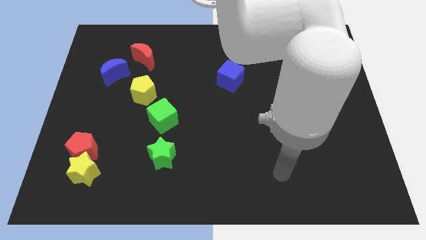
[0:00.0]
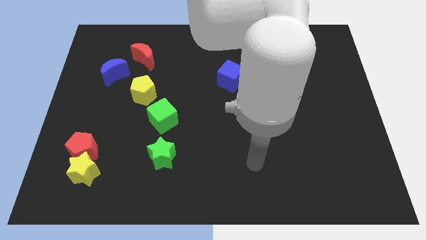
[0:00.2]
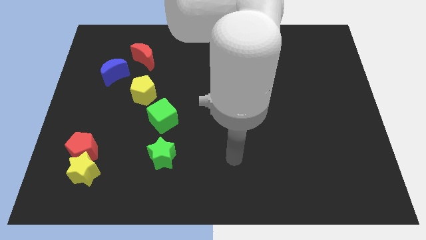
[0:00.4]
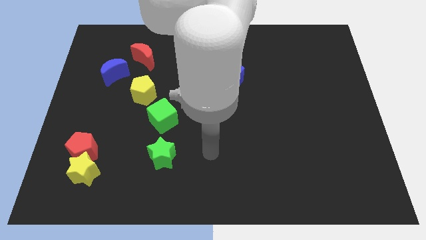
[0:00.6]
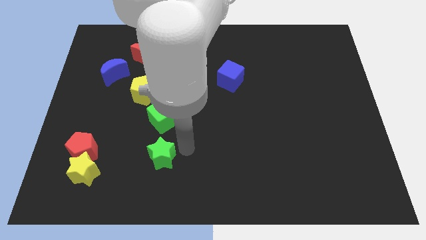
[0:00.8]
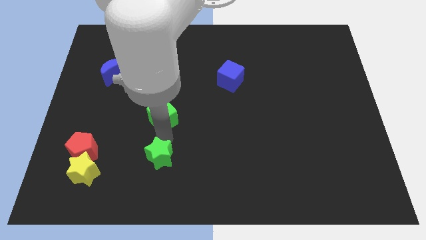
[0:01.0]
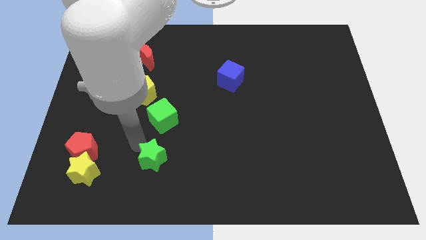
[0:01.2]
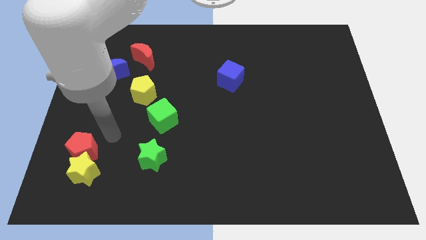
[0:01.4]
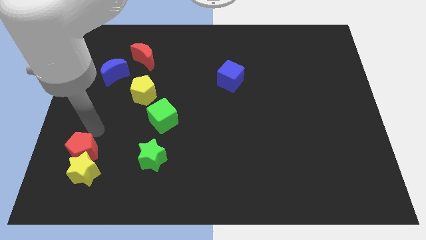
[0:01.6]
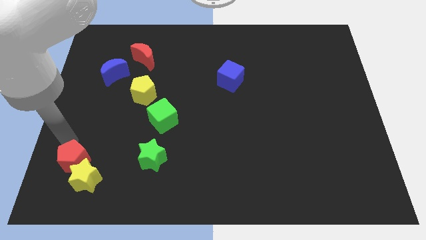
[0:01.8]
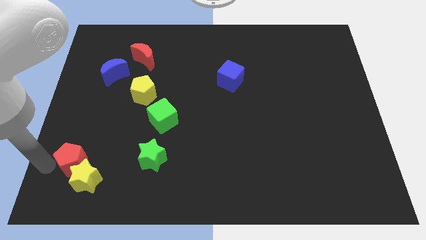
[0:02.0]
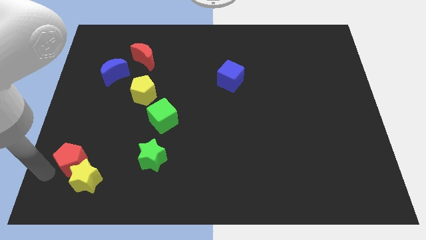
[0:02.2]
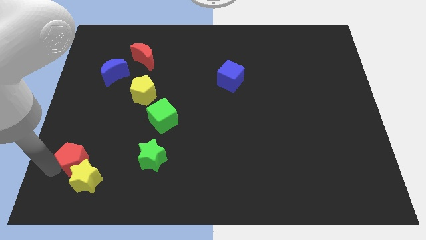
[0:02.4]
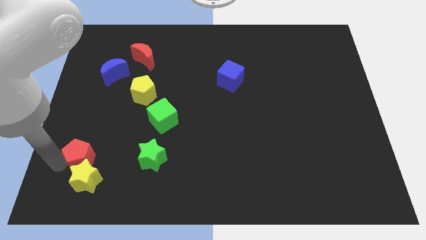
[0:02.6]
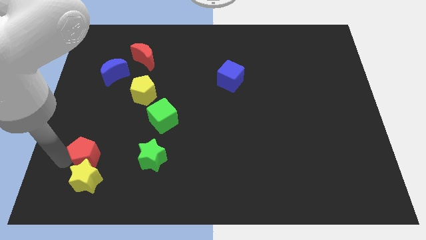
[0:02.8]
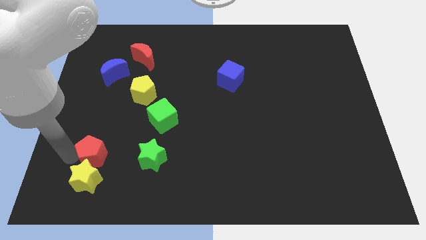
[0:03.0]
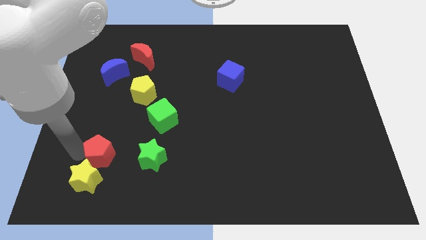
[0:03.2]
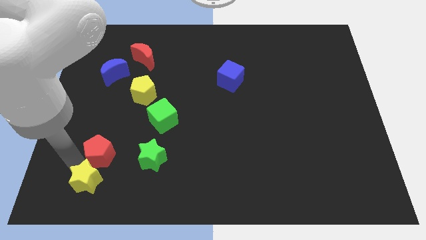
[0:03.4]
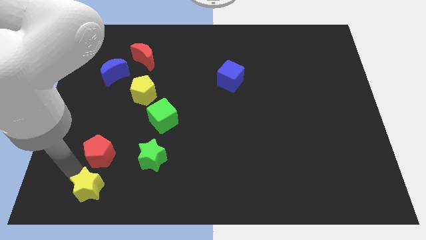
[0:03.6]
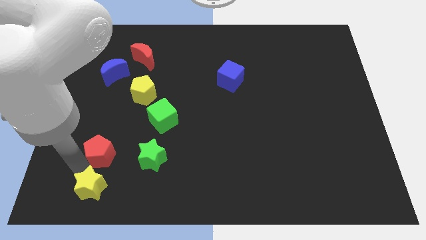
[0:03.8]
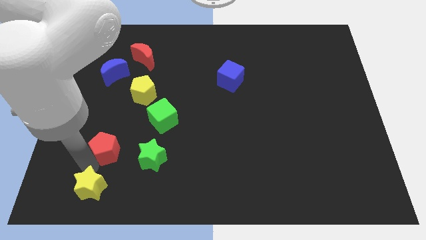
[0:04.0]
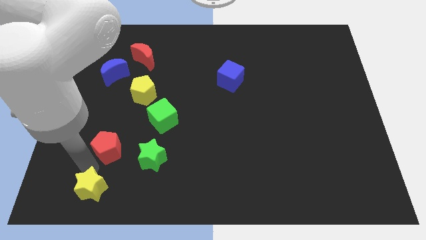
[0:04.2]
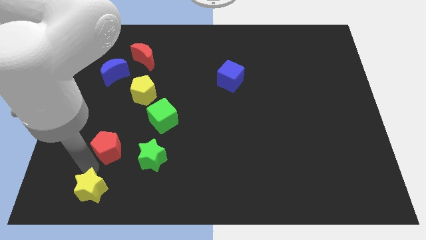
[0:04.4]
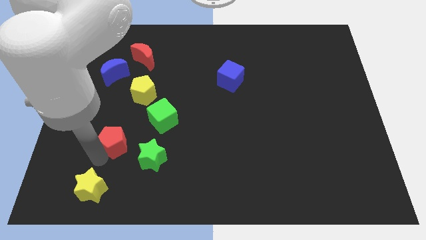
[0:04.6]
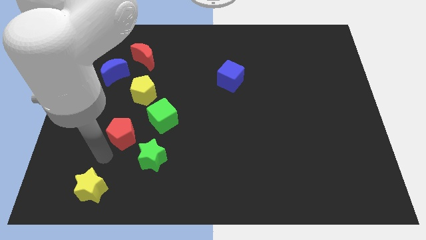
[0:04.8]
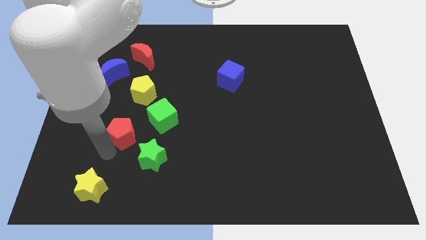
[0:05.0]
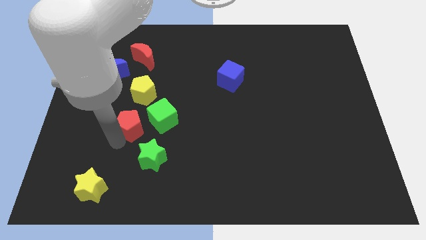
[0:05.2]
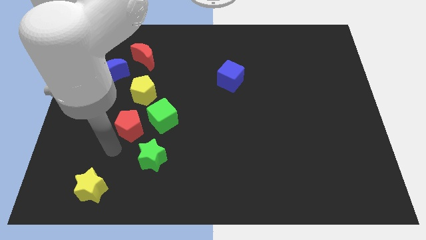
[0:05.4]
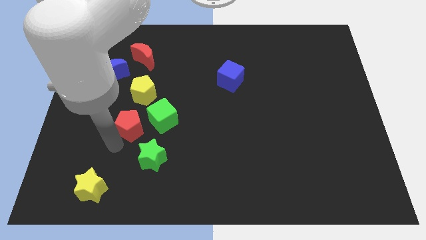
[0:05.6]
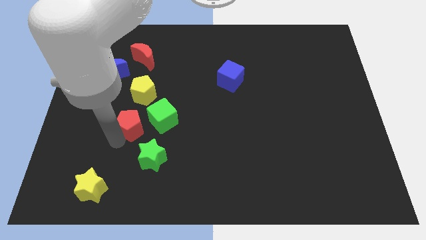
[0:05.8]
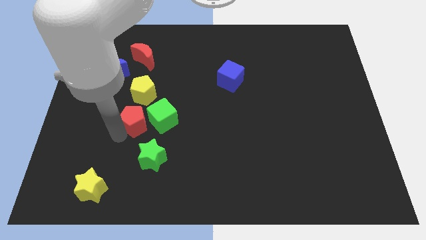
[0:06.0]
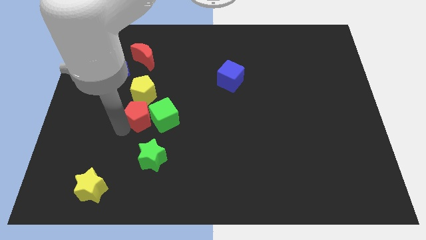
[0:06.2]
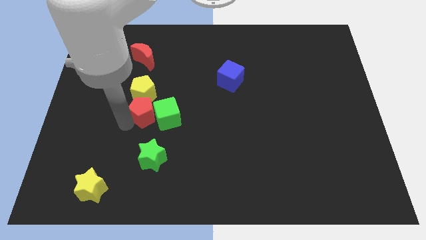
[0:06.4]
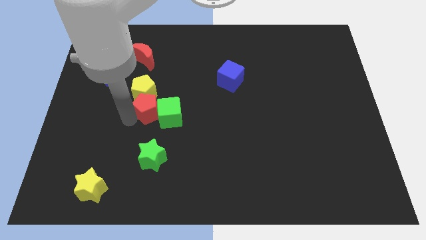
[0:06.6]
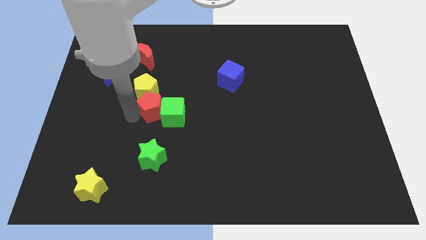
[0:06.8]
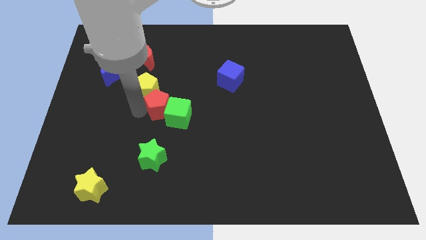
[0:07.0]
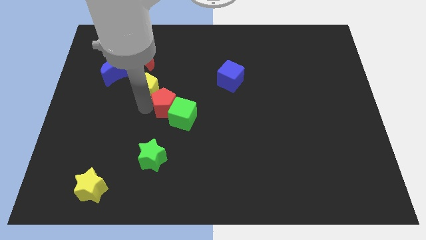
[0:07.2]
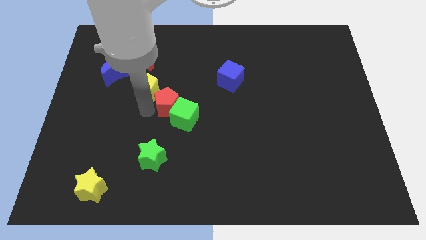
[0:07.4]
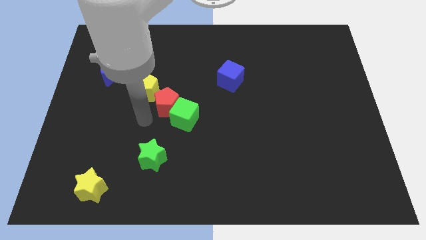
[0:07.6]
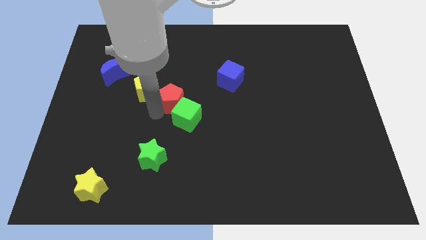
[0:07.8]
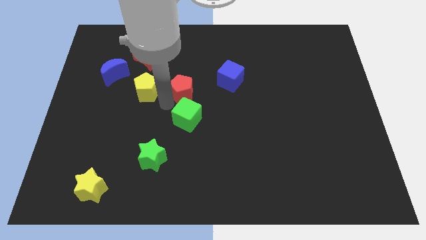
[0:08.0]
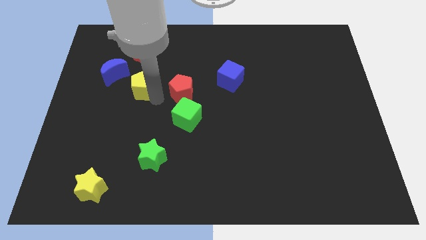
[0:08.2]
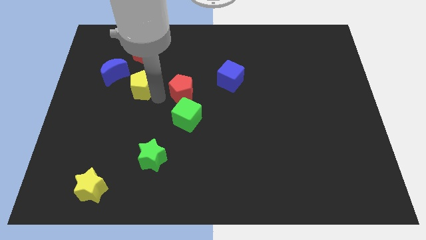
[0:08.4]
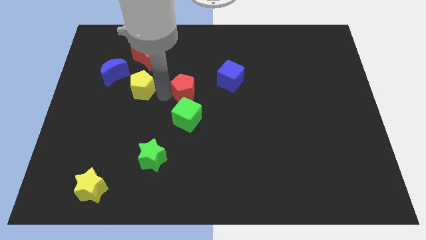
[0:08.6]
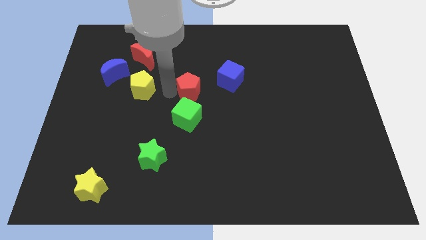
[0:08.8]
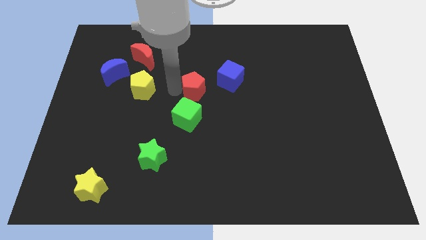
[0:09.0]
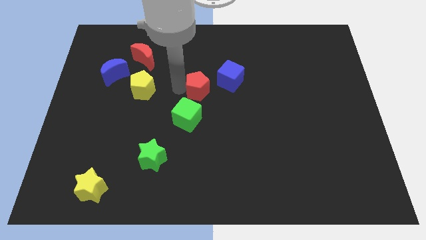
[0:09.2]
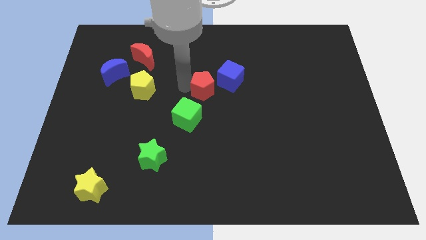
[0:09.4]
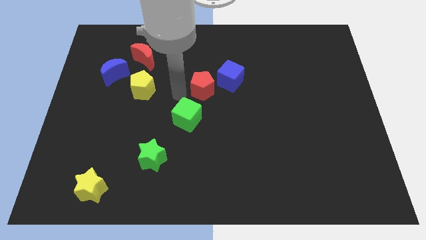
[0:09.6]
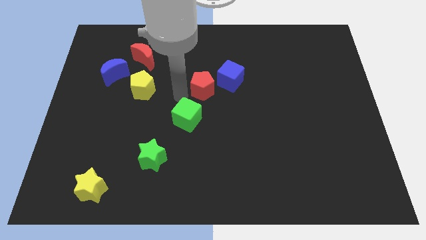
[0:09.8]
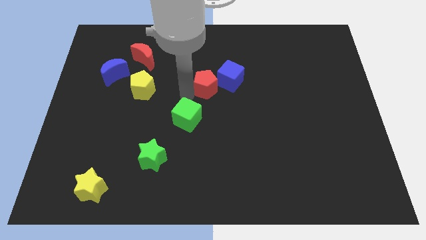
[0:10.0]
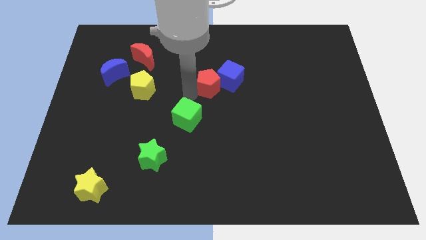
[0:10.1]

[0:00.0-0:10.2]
put the red pentagon towards the blue cube

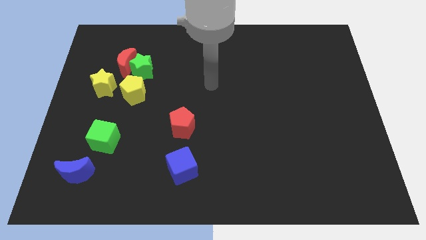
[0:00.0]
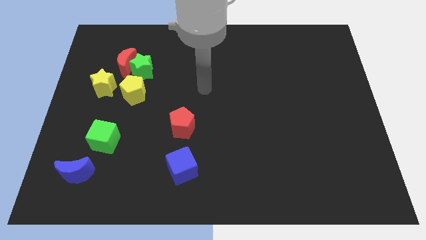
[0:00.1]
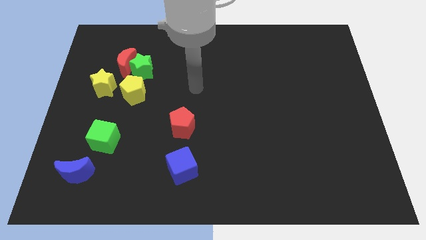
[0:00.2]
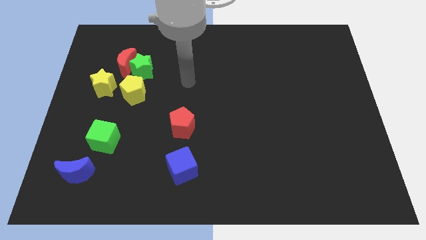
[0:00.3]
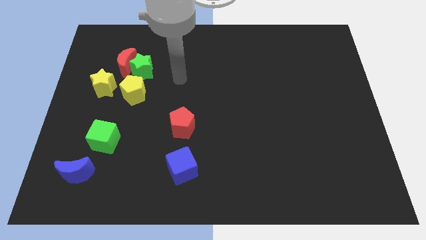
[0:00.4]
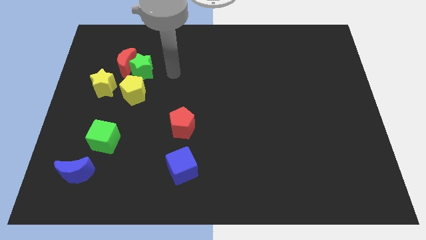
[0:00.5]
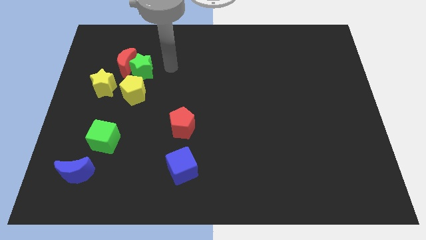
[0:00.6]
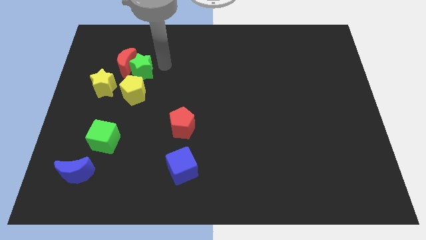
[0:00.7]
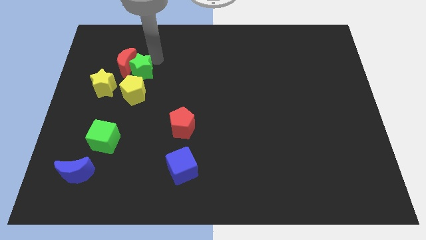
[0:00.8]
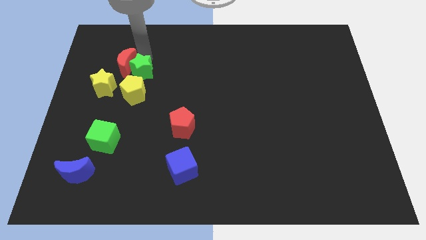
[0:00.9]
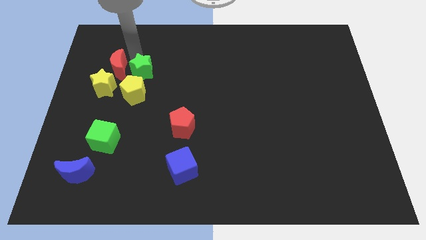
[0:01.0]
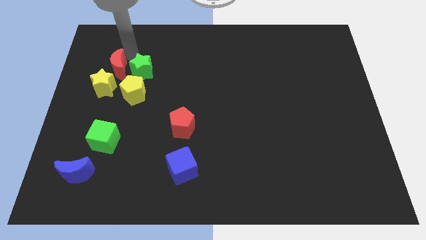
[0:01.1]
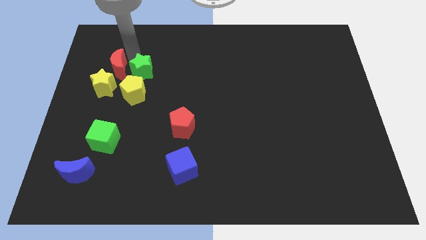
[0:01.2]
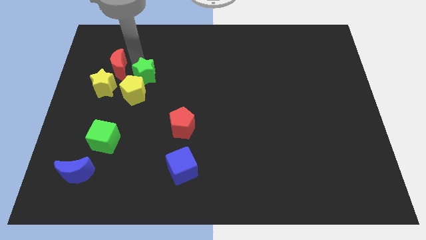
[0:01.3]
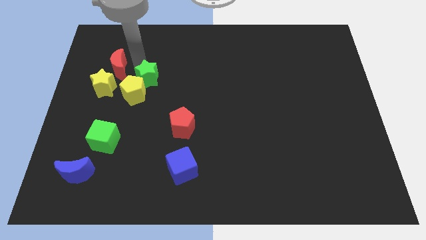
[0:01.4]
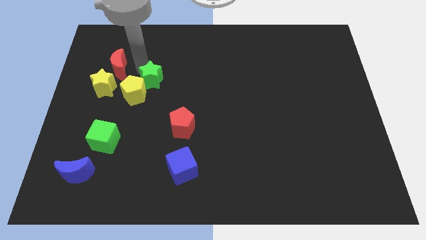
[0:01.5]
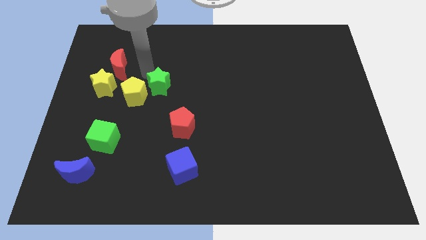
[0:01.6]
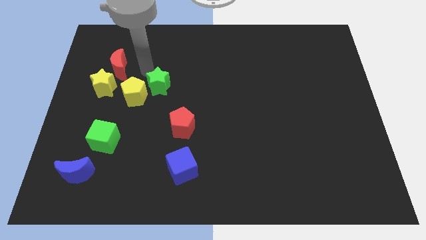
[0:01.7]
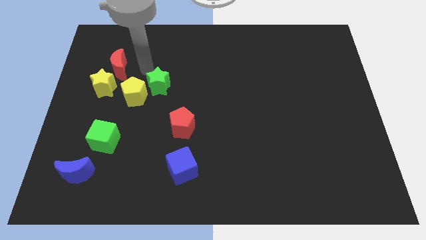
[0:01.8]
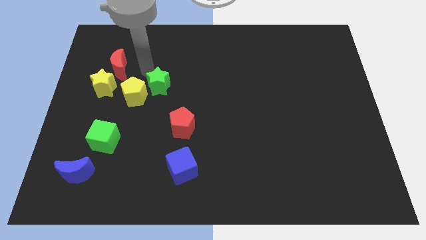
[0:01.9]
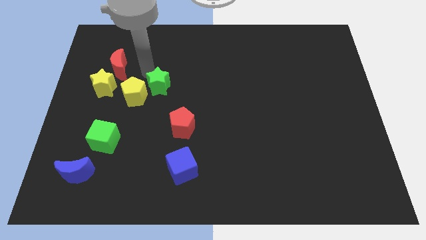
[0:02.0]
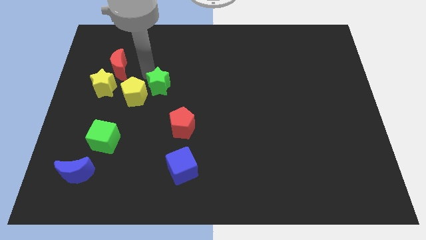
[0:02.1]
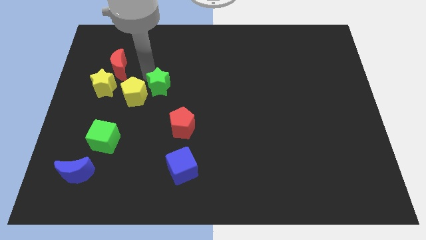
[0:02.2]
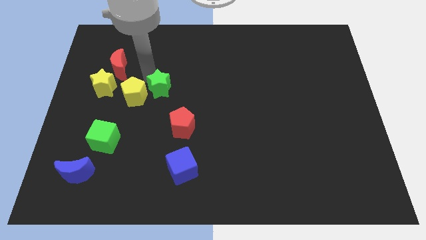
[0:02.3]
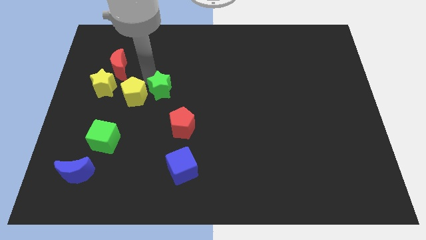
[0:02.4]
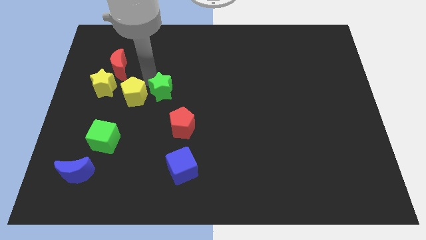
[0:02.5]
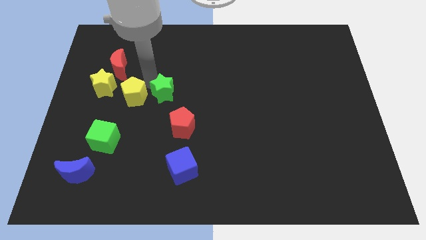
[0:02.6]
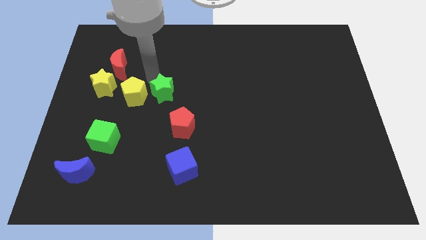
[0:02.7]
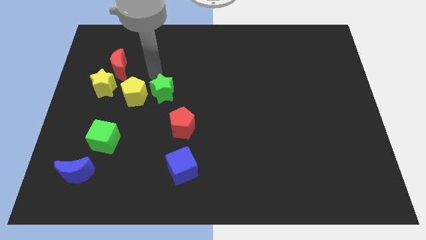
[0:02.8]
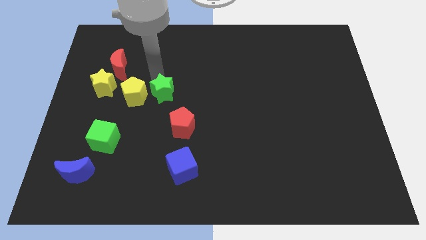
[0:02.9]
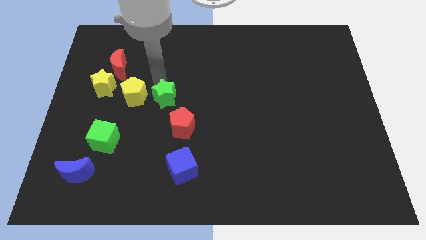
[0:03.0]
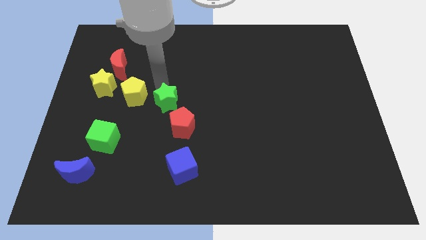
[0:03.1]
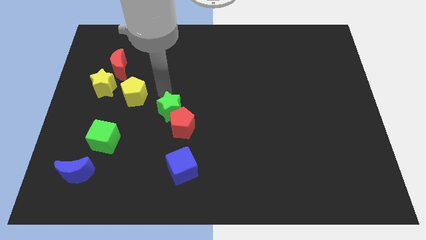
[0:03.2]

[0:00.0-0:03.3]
slide the green star towards the red pentagon
